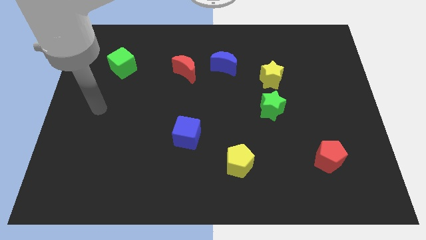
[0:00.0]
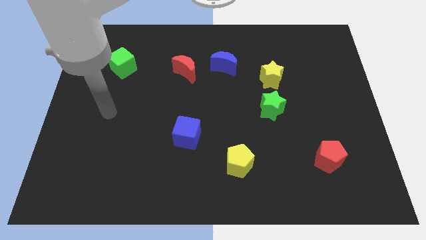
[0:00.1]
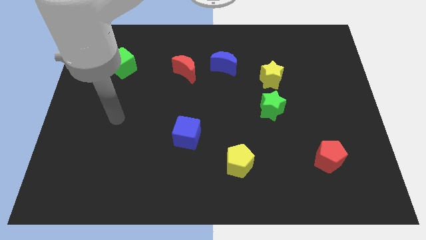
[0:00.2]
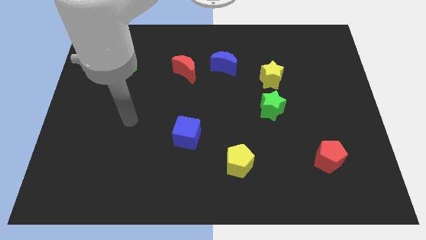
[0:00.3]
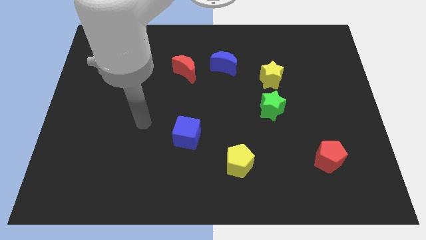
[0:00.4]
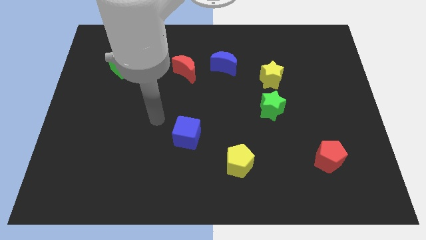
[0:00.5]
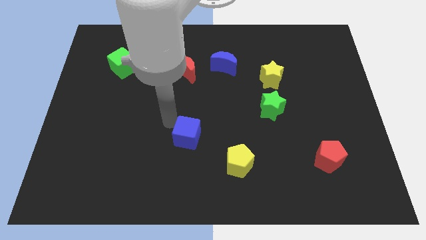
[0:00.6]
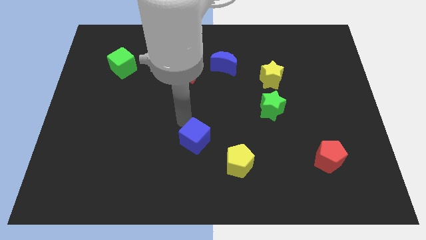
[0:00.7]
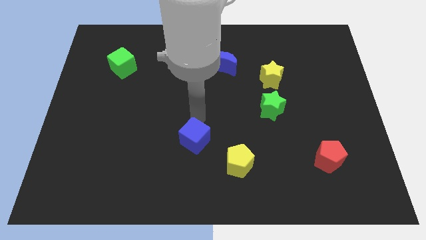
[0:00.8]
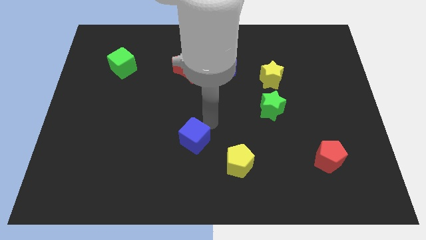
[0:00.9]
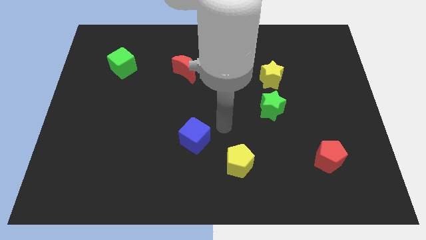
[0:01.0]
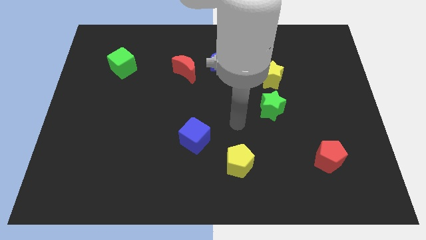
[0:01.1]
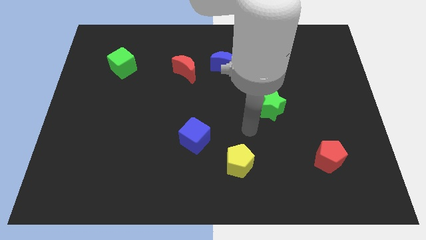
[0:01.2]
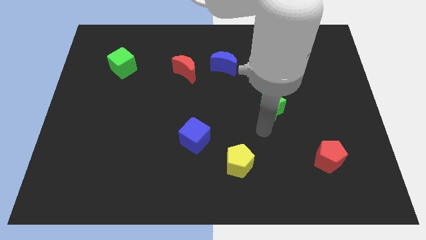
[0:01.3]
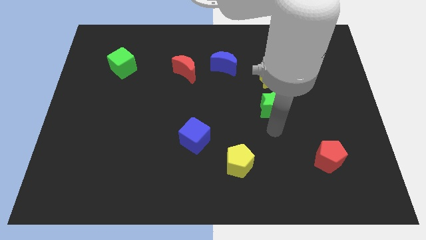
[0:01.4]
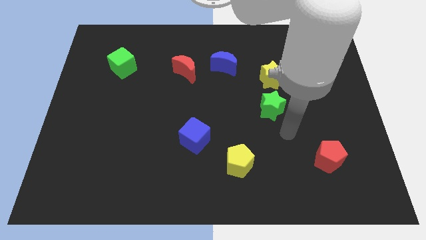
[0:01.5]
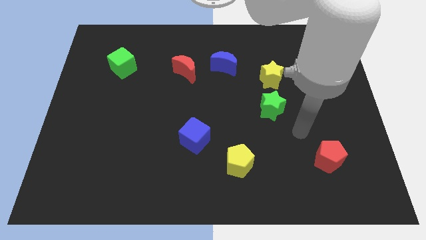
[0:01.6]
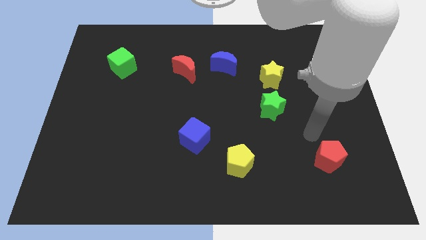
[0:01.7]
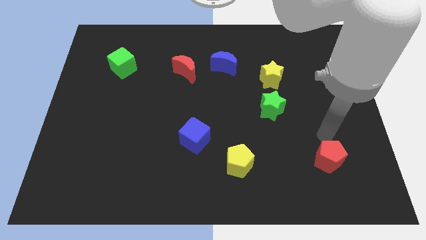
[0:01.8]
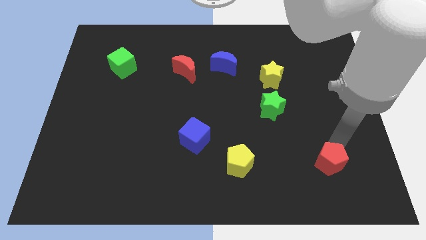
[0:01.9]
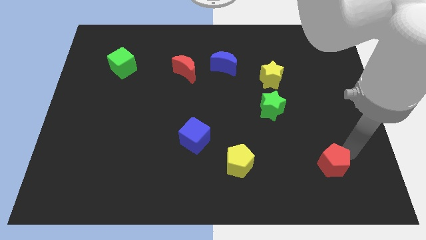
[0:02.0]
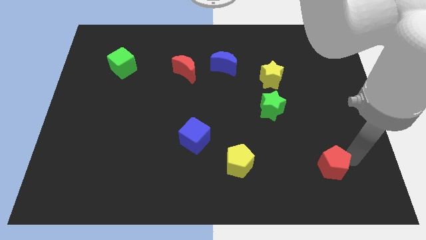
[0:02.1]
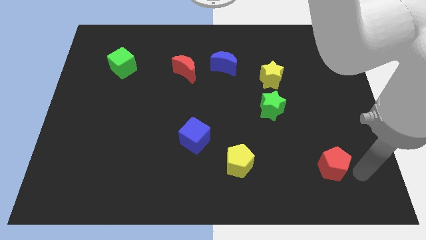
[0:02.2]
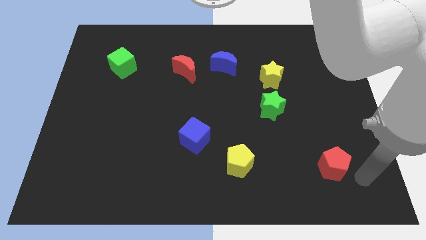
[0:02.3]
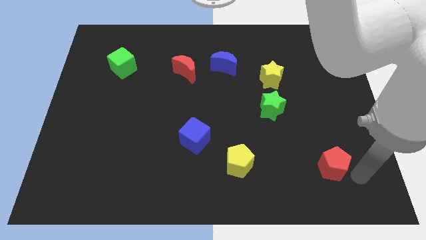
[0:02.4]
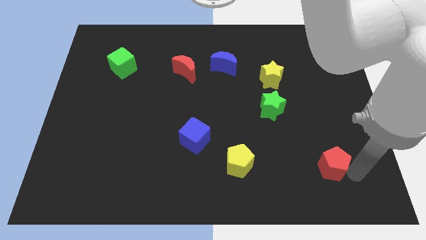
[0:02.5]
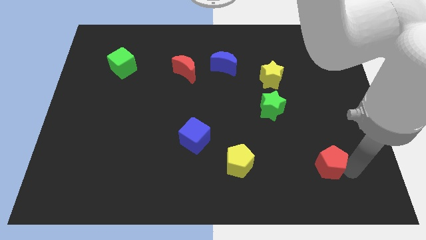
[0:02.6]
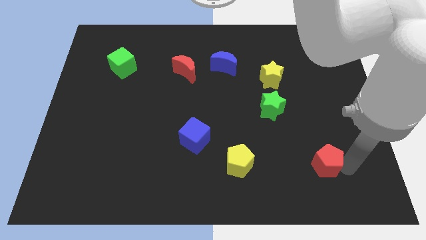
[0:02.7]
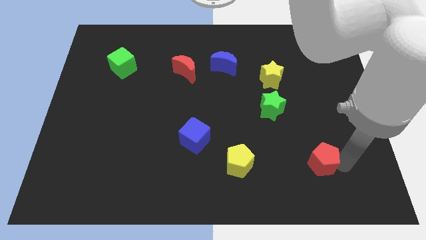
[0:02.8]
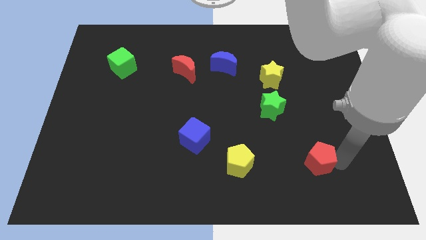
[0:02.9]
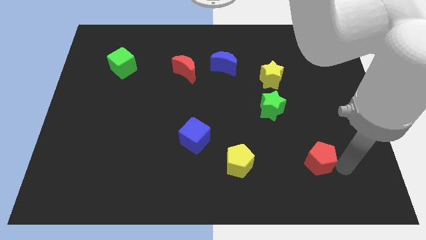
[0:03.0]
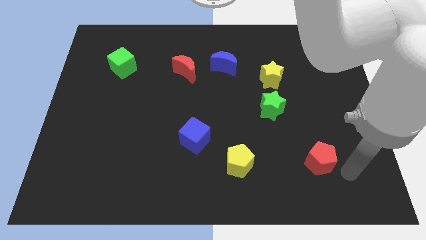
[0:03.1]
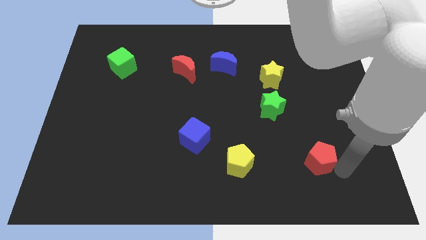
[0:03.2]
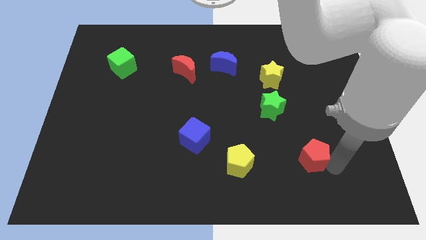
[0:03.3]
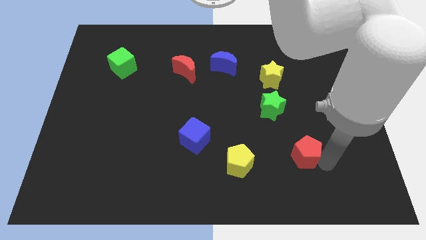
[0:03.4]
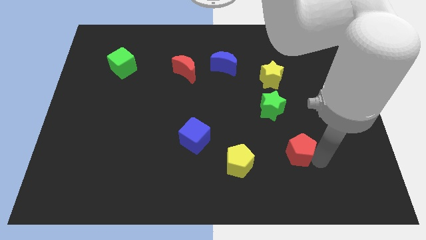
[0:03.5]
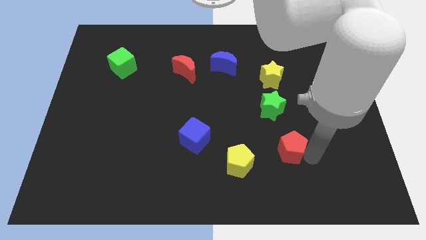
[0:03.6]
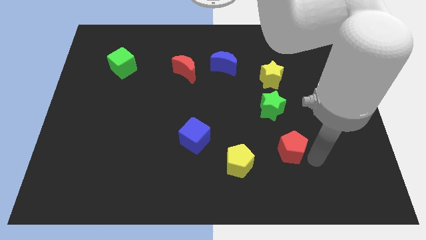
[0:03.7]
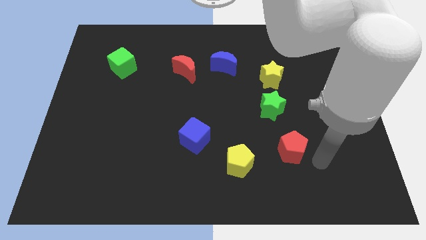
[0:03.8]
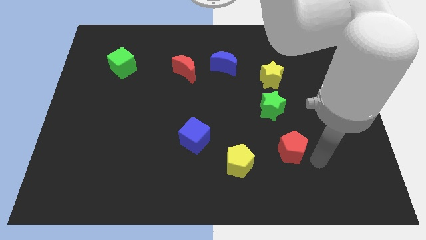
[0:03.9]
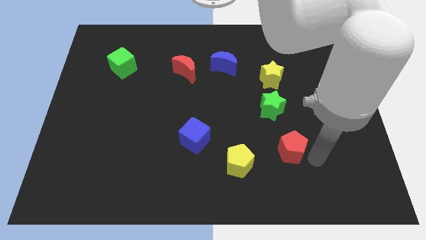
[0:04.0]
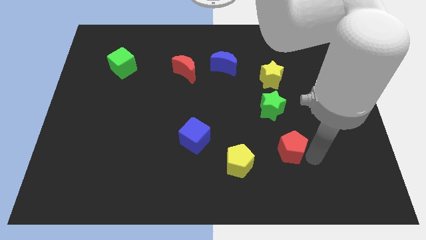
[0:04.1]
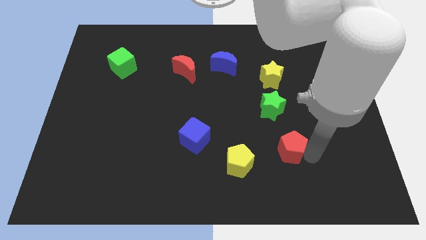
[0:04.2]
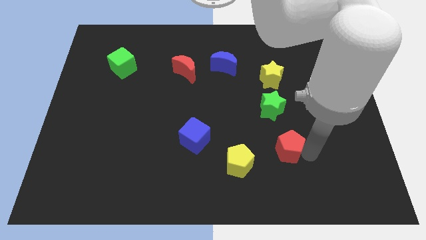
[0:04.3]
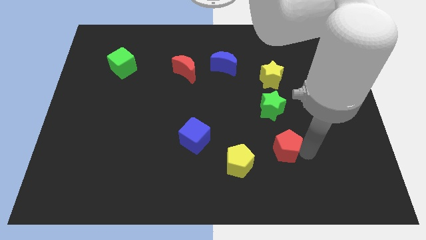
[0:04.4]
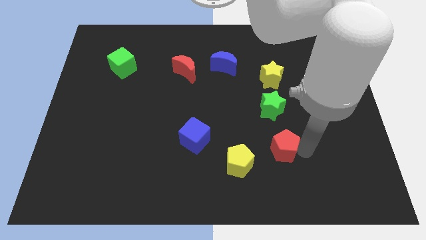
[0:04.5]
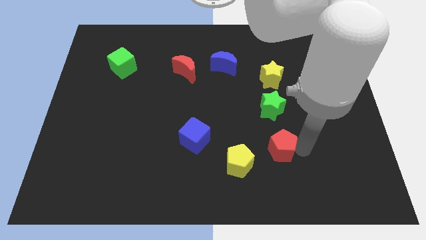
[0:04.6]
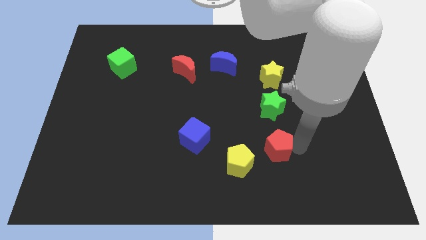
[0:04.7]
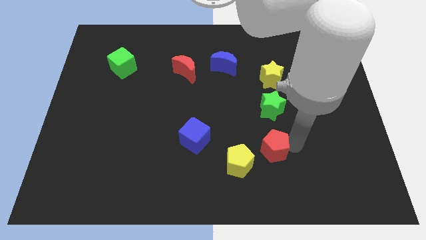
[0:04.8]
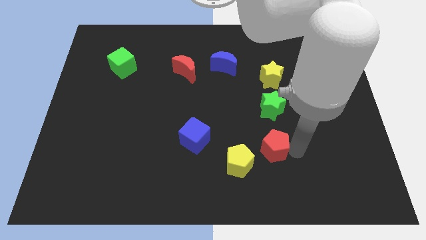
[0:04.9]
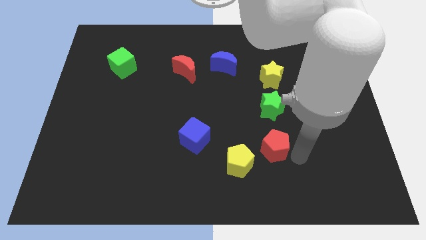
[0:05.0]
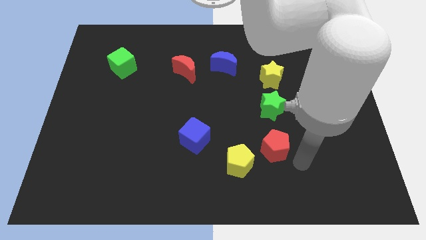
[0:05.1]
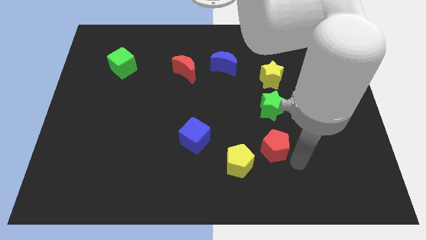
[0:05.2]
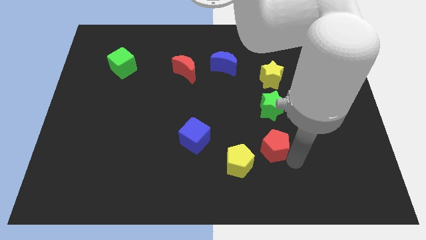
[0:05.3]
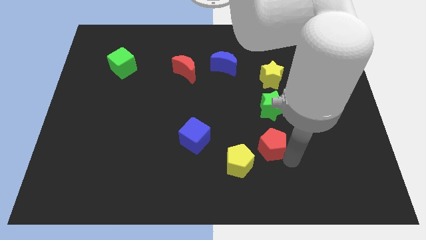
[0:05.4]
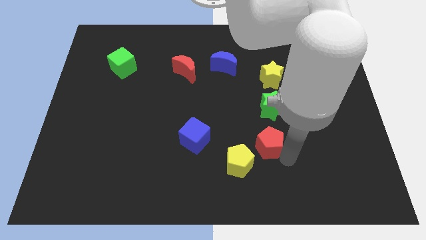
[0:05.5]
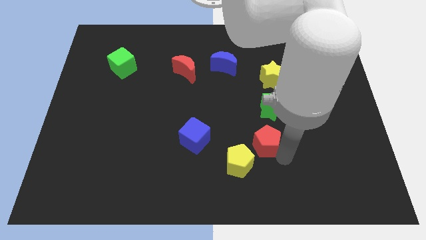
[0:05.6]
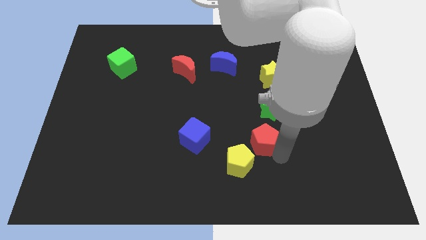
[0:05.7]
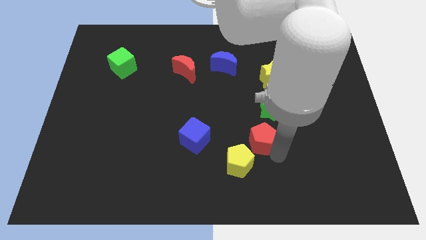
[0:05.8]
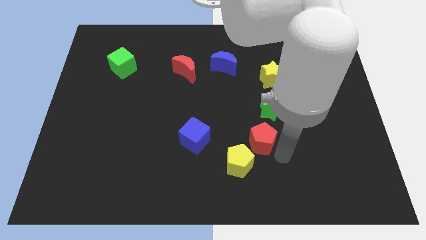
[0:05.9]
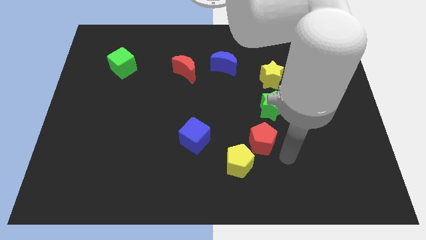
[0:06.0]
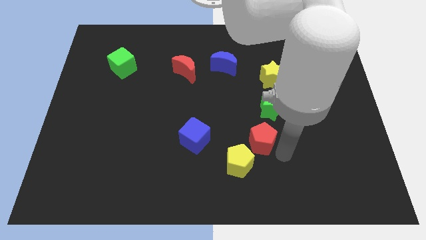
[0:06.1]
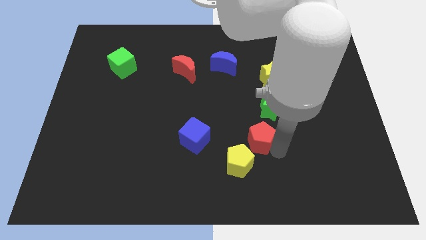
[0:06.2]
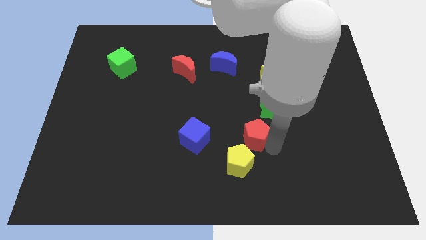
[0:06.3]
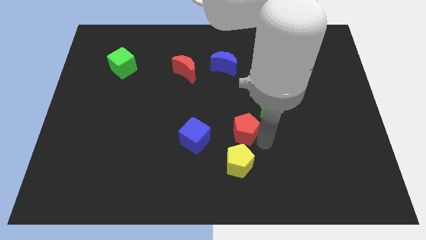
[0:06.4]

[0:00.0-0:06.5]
move the red pentagon to the middle of the board
